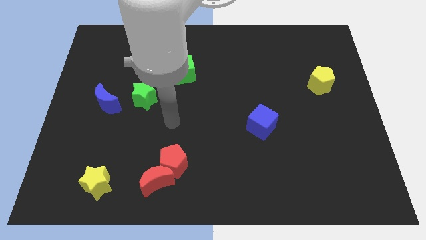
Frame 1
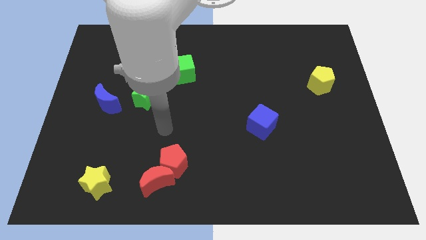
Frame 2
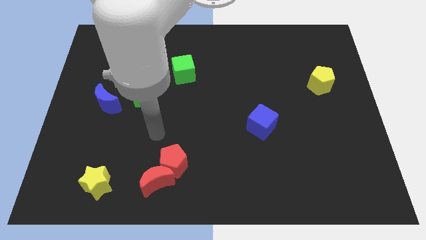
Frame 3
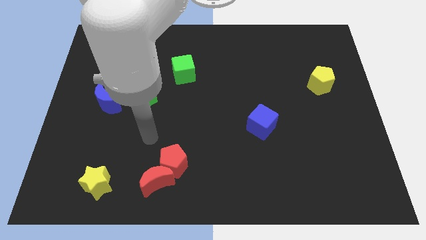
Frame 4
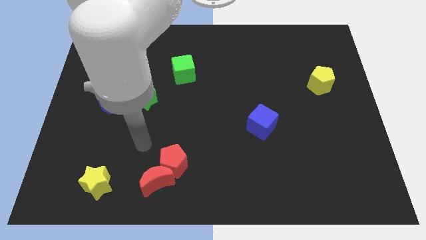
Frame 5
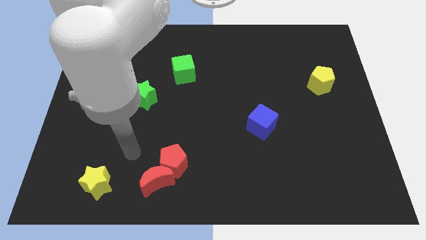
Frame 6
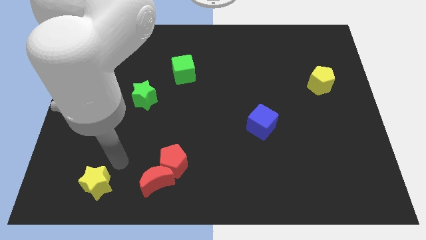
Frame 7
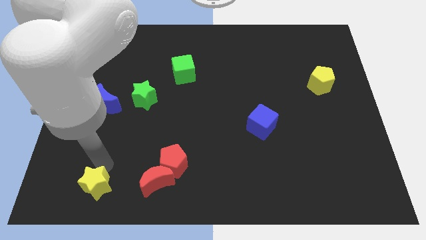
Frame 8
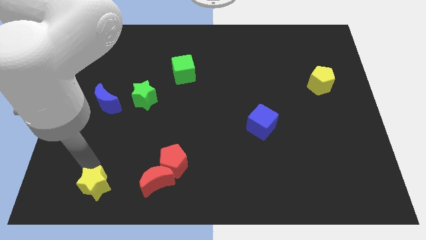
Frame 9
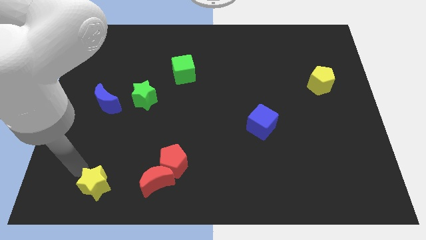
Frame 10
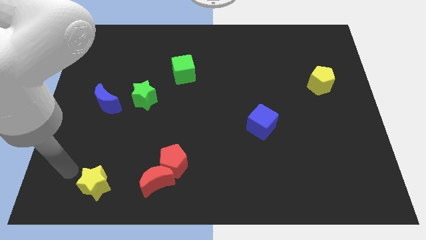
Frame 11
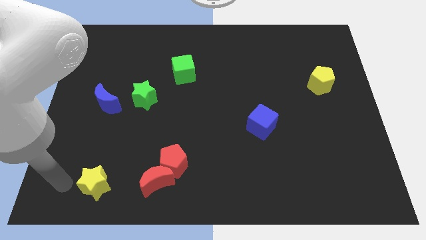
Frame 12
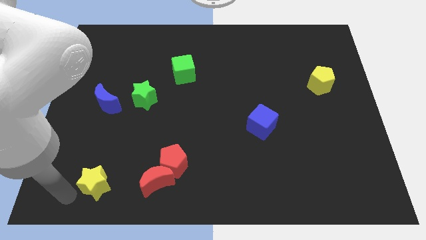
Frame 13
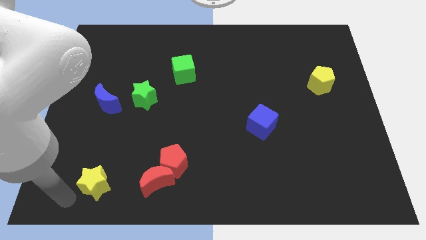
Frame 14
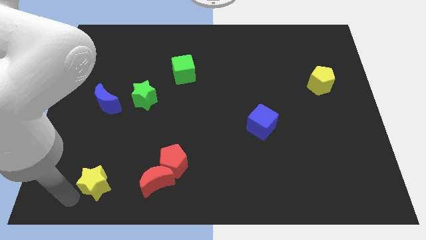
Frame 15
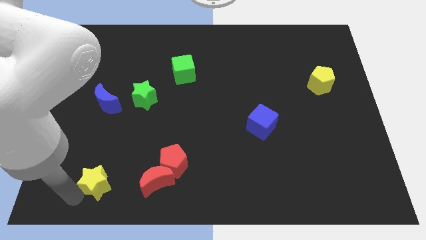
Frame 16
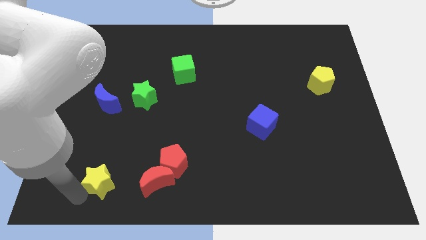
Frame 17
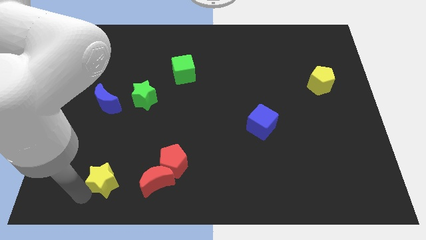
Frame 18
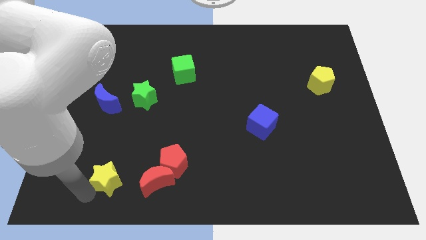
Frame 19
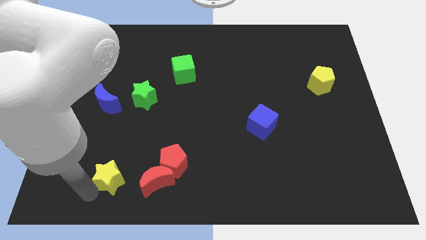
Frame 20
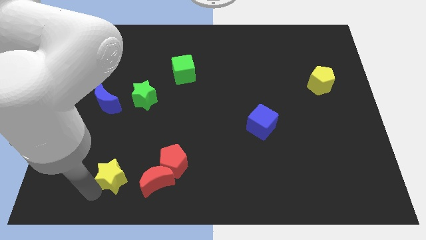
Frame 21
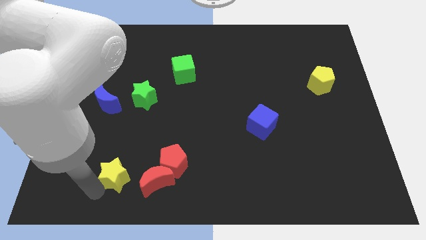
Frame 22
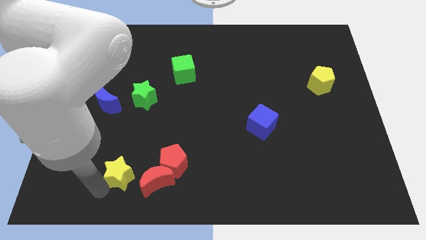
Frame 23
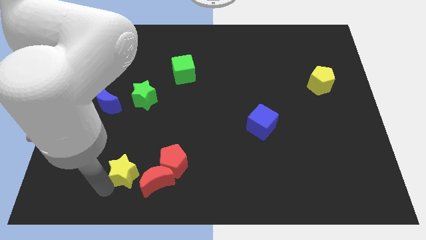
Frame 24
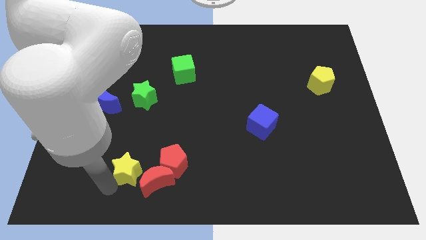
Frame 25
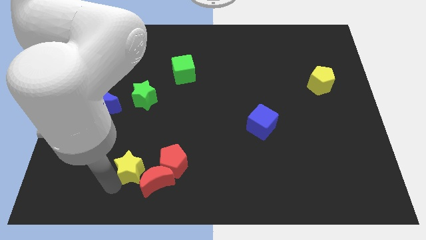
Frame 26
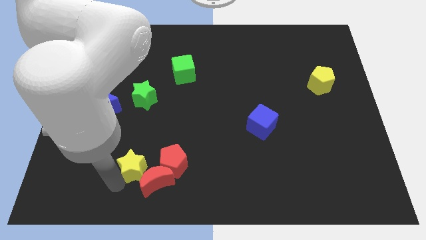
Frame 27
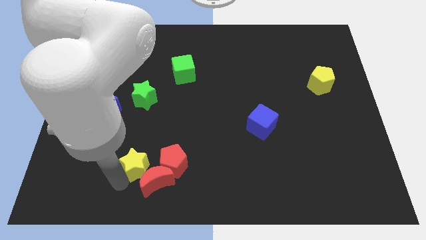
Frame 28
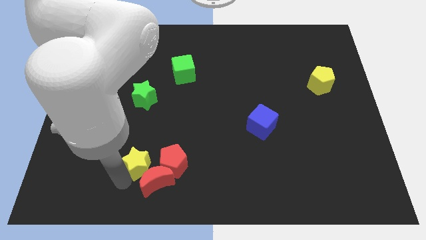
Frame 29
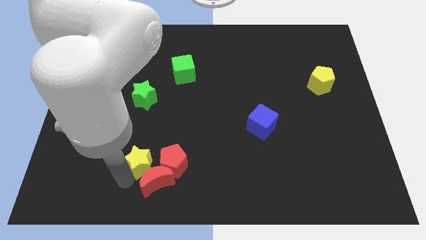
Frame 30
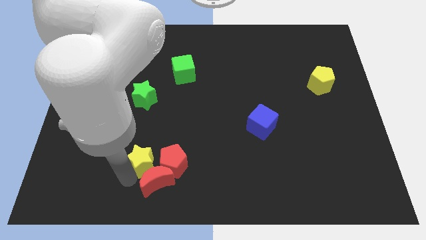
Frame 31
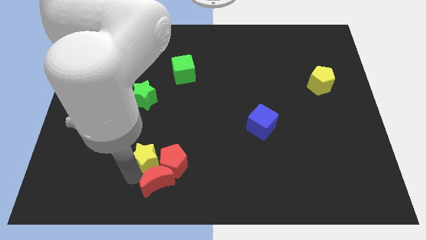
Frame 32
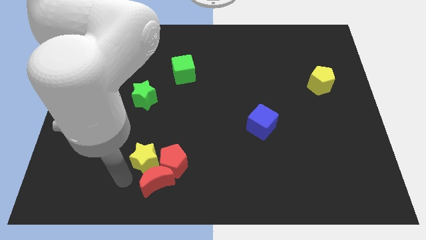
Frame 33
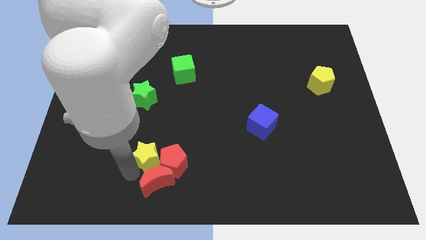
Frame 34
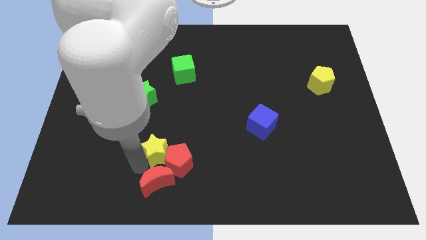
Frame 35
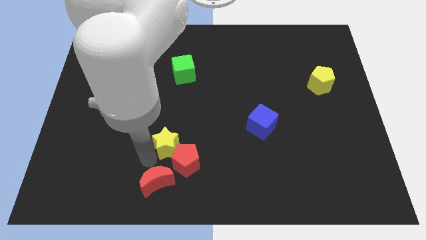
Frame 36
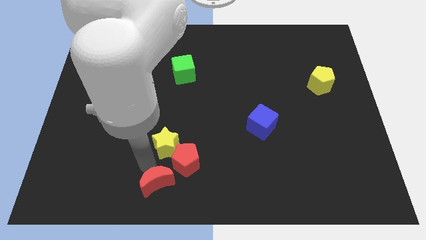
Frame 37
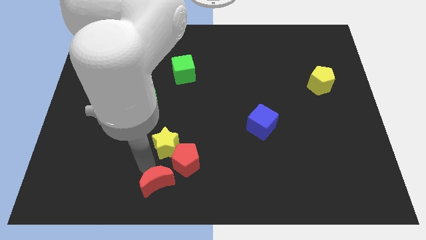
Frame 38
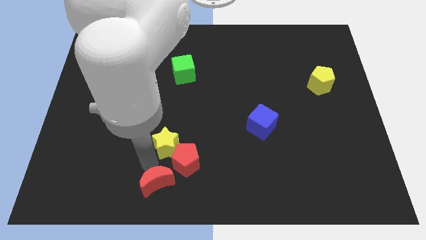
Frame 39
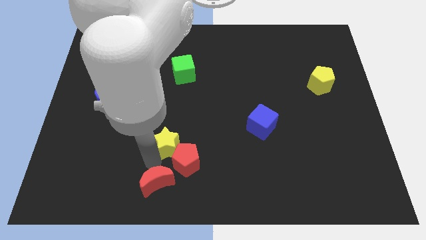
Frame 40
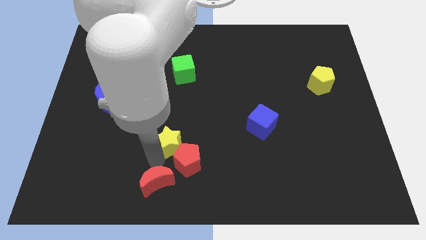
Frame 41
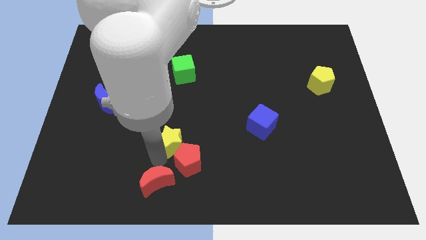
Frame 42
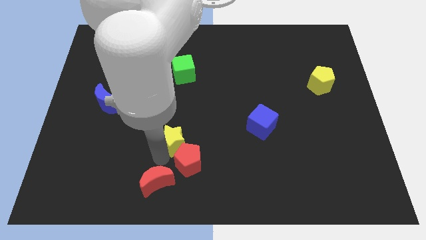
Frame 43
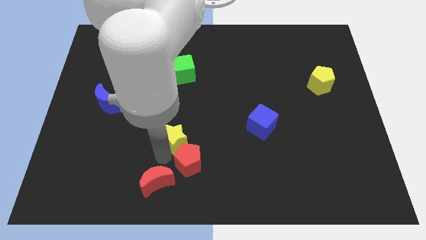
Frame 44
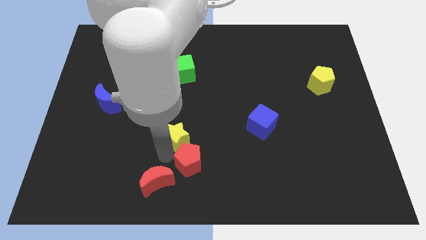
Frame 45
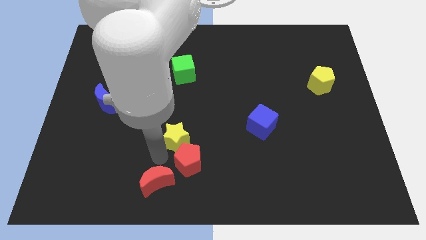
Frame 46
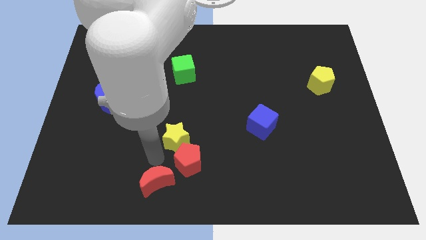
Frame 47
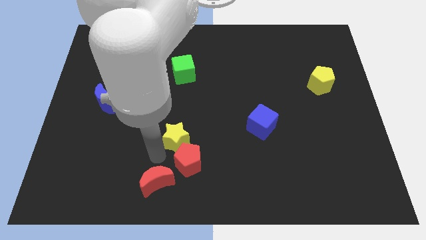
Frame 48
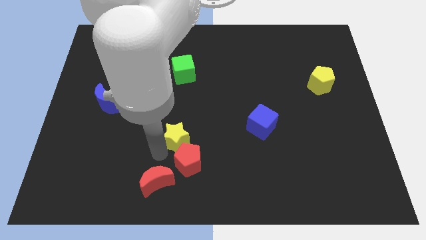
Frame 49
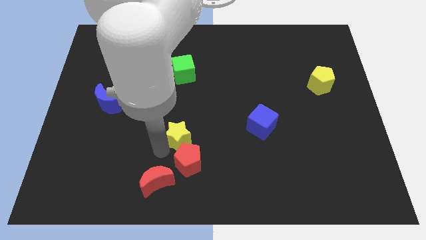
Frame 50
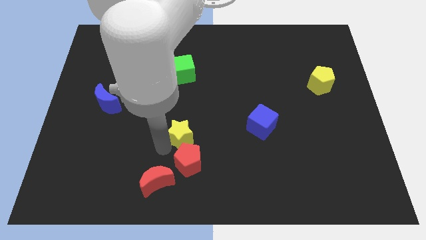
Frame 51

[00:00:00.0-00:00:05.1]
put the yellow star to the center of the board

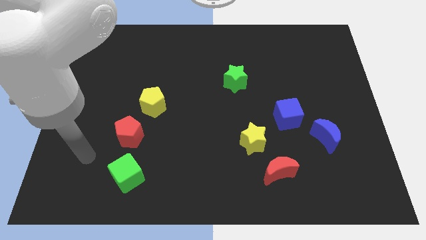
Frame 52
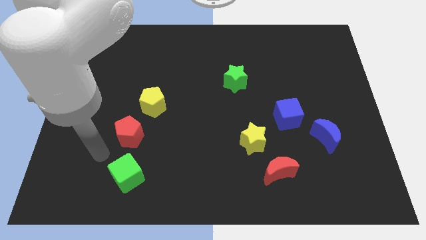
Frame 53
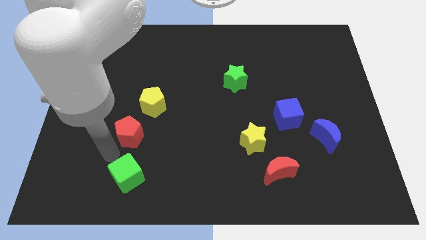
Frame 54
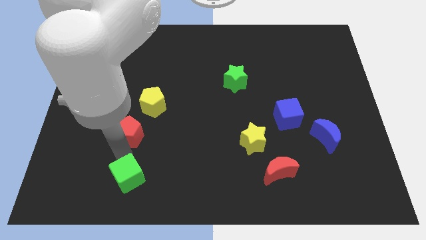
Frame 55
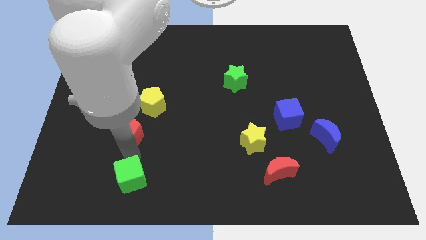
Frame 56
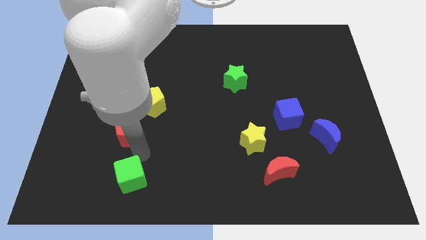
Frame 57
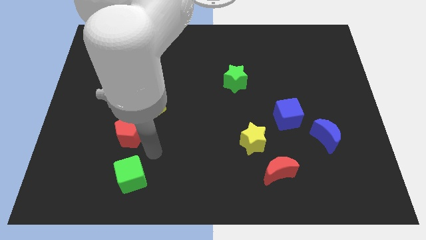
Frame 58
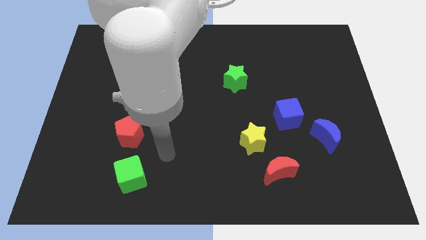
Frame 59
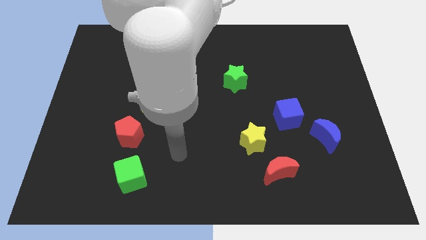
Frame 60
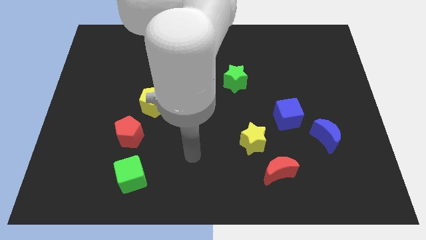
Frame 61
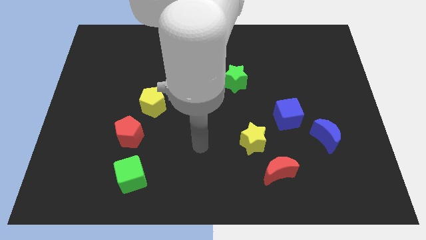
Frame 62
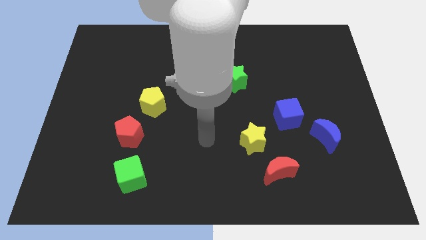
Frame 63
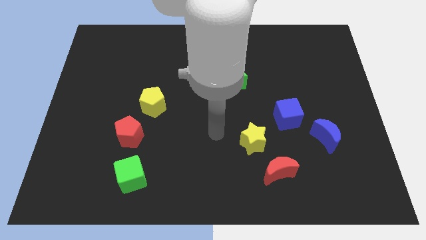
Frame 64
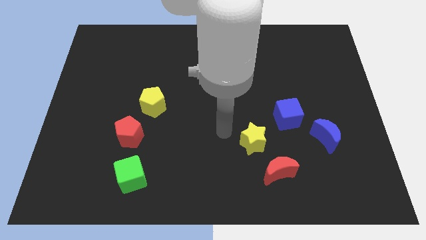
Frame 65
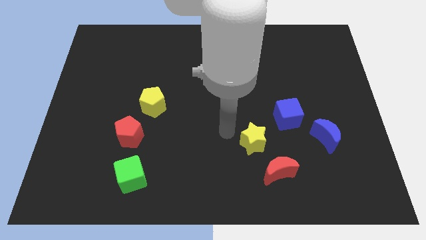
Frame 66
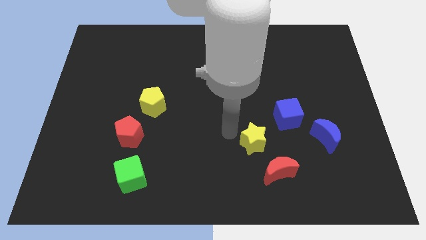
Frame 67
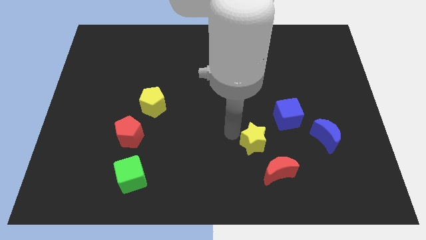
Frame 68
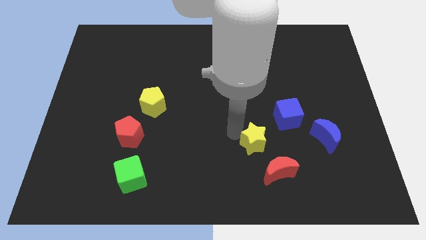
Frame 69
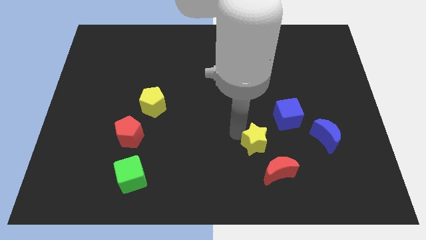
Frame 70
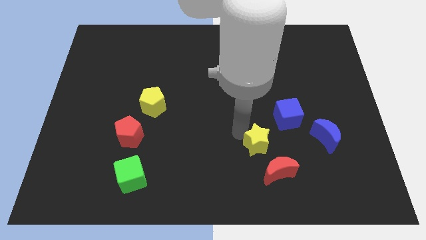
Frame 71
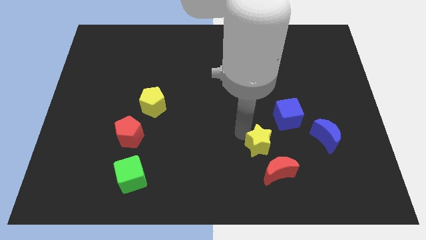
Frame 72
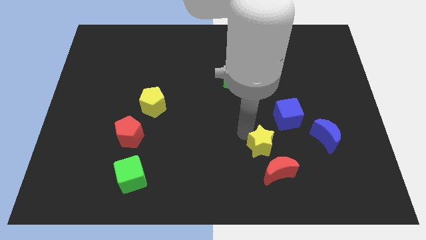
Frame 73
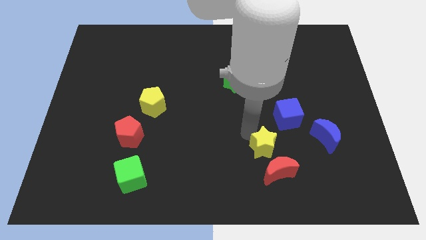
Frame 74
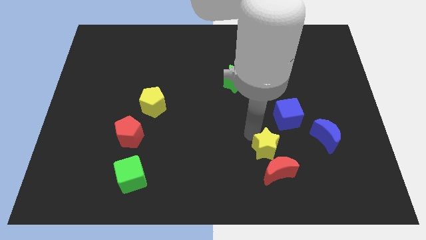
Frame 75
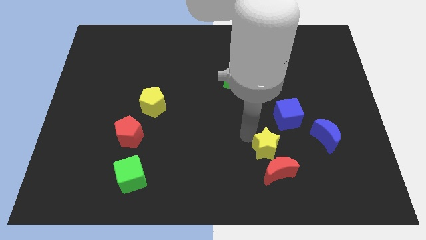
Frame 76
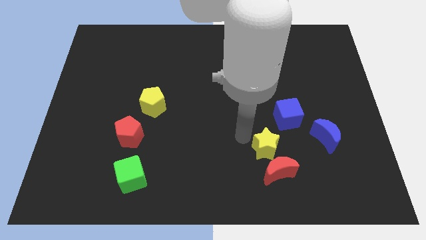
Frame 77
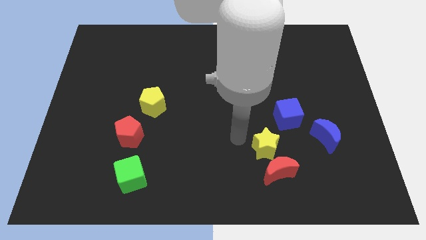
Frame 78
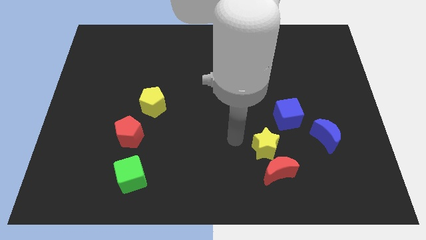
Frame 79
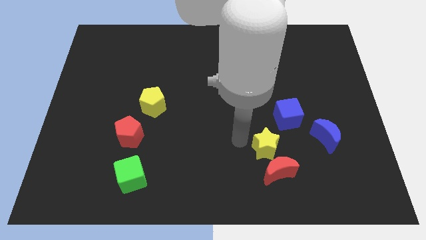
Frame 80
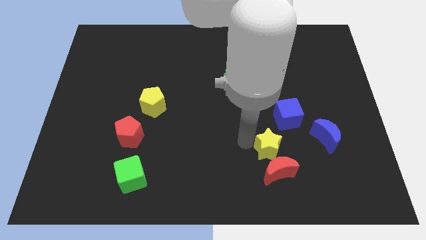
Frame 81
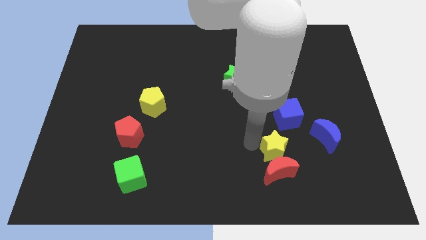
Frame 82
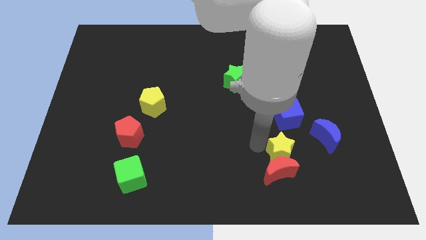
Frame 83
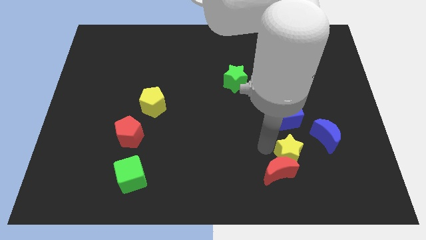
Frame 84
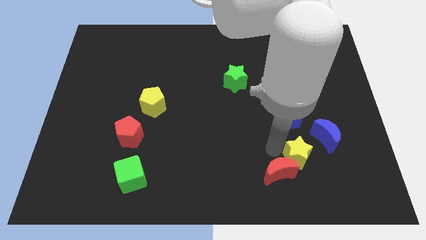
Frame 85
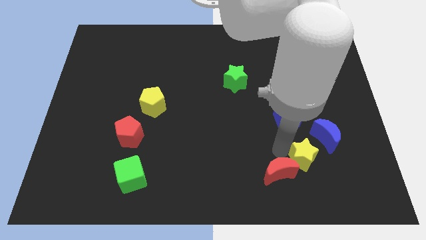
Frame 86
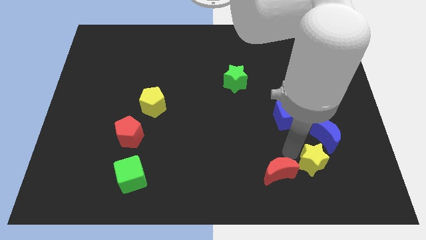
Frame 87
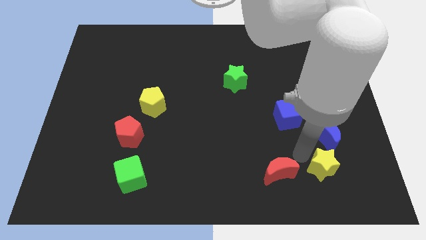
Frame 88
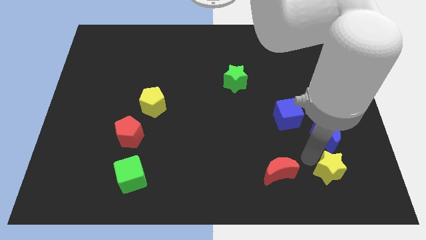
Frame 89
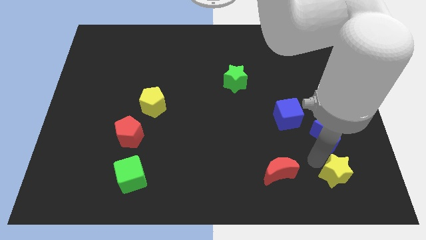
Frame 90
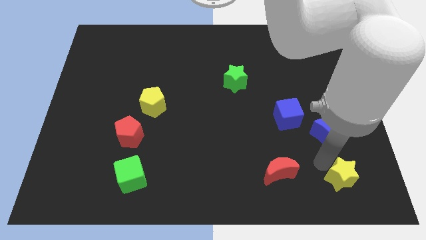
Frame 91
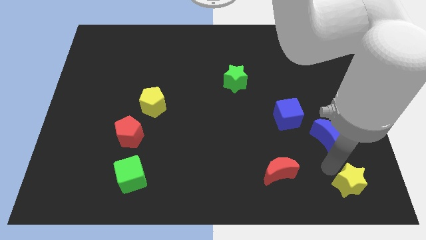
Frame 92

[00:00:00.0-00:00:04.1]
slide the yellow star to the bottom right of the board
